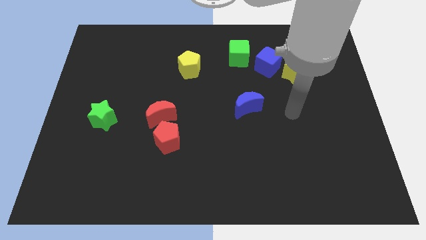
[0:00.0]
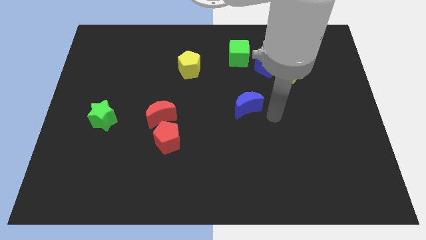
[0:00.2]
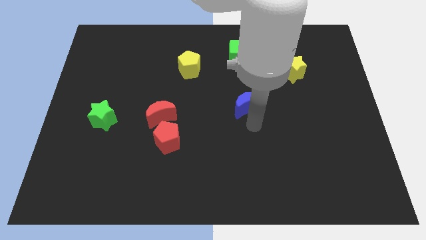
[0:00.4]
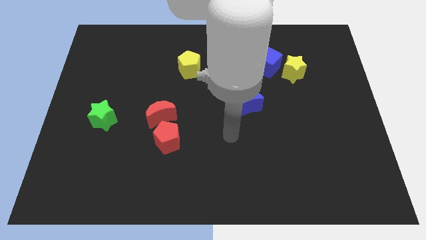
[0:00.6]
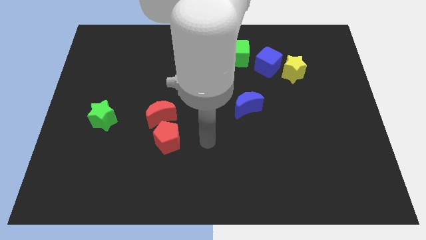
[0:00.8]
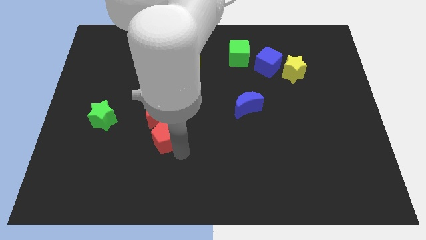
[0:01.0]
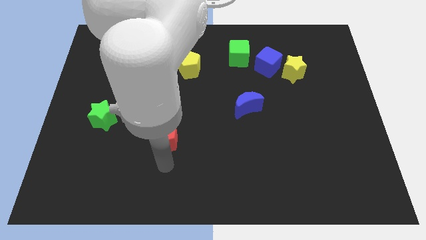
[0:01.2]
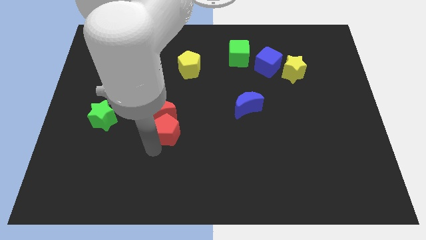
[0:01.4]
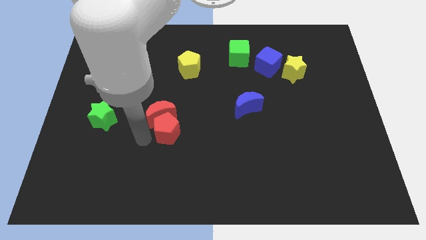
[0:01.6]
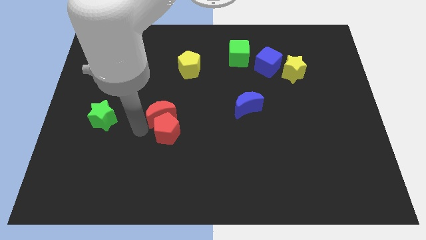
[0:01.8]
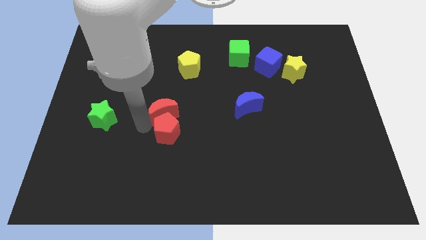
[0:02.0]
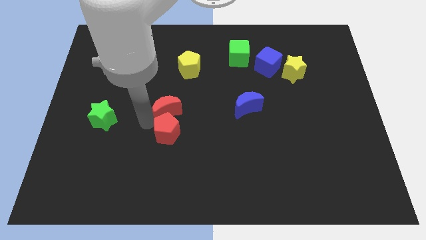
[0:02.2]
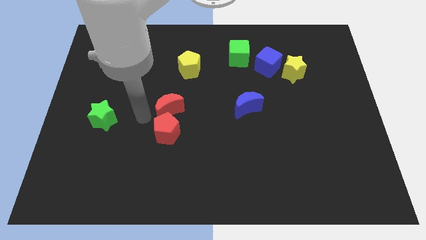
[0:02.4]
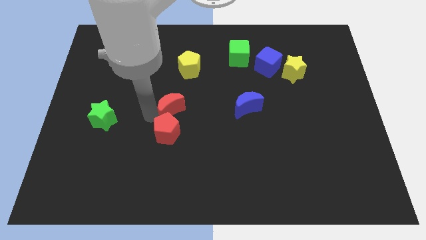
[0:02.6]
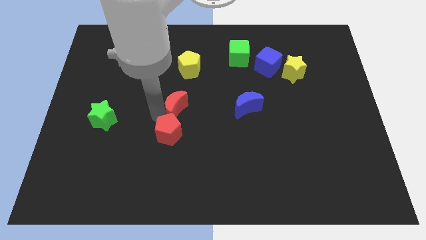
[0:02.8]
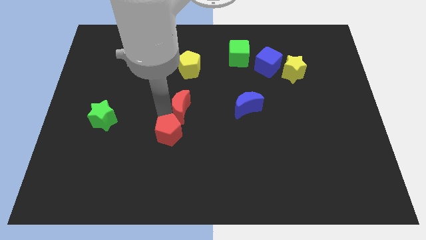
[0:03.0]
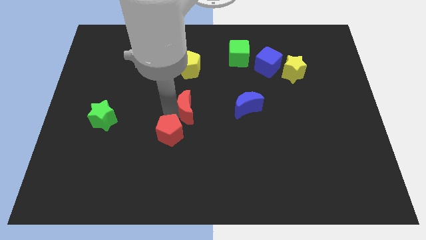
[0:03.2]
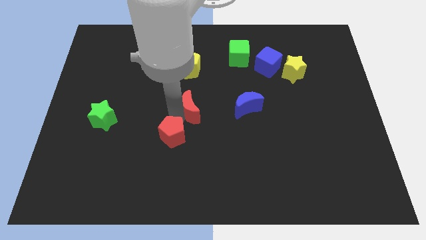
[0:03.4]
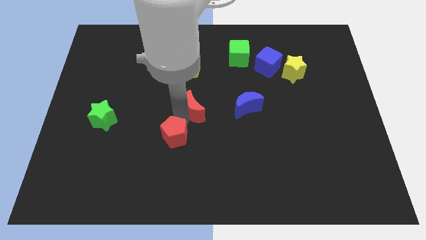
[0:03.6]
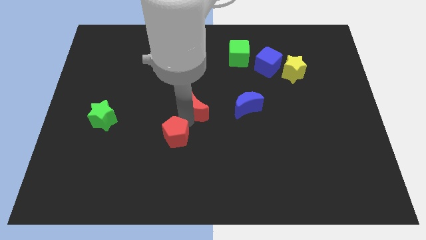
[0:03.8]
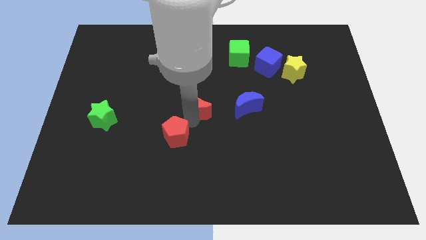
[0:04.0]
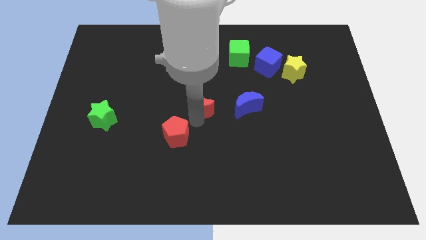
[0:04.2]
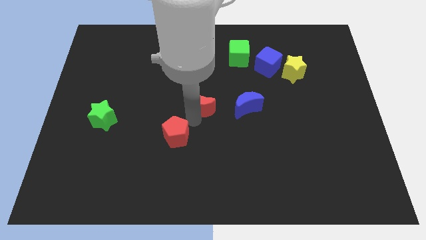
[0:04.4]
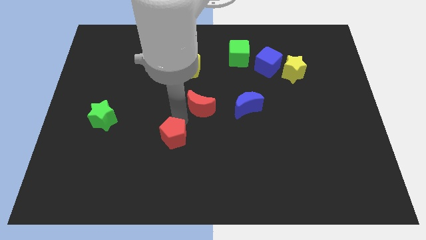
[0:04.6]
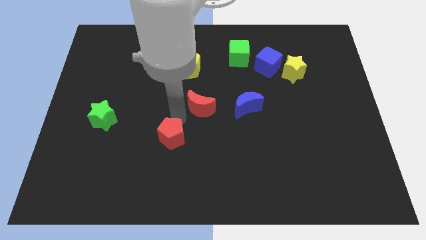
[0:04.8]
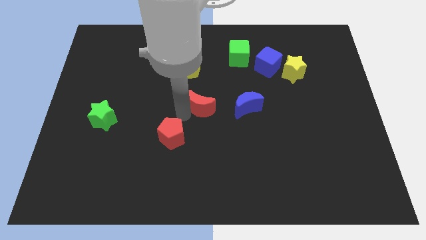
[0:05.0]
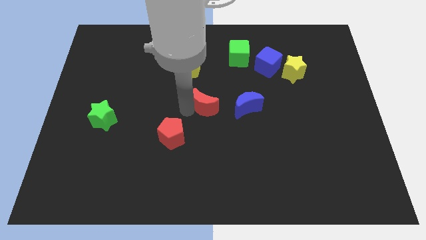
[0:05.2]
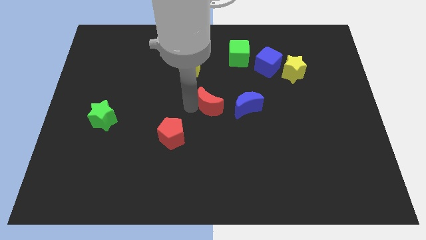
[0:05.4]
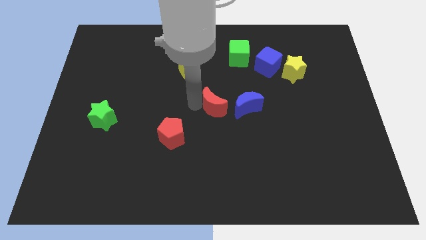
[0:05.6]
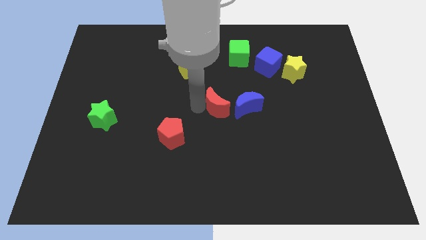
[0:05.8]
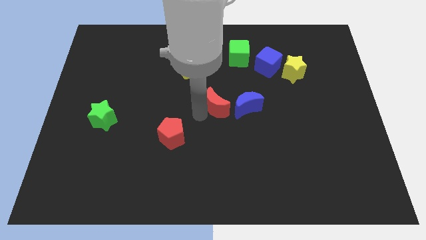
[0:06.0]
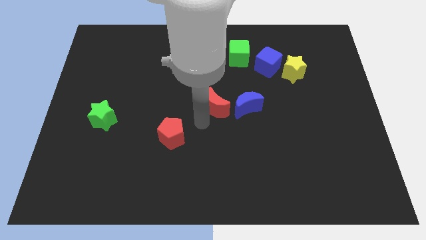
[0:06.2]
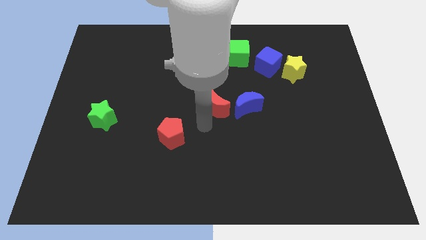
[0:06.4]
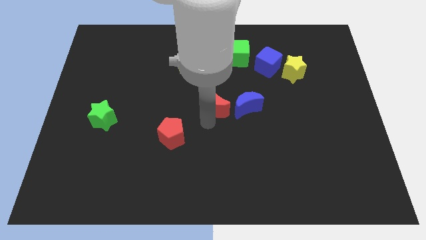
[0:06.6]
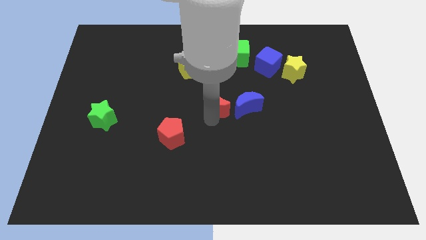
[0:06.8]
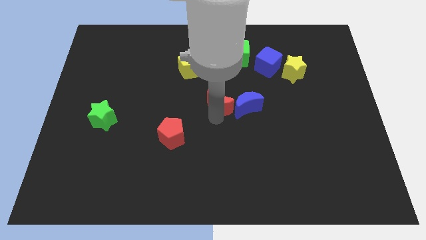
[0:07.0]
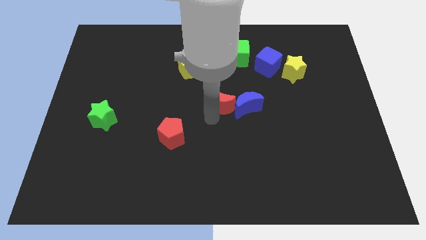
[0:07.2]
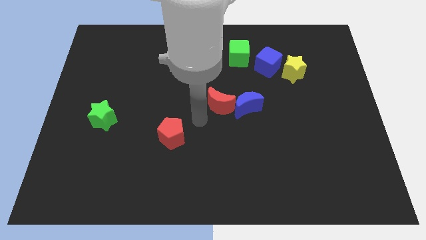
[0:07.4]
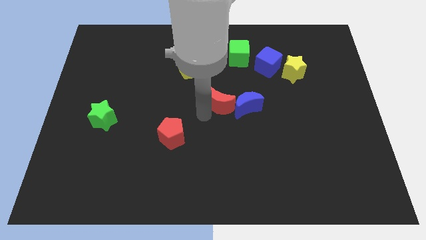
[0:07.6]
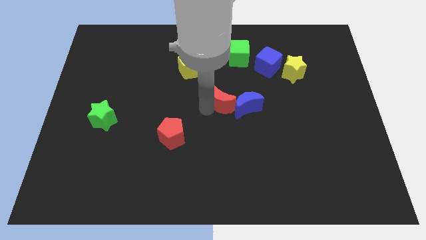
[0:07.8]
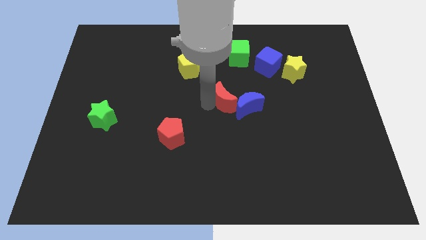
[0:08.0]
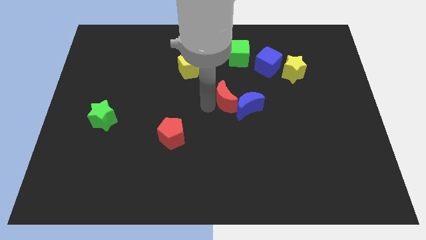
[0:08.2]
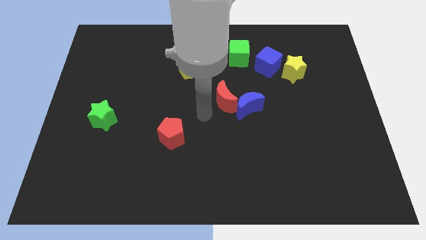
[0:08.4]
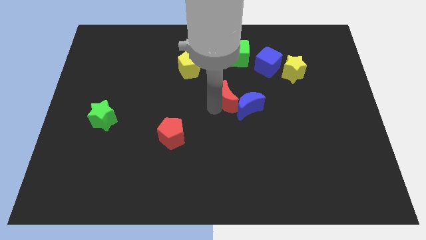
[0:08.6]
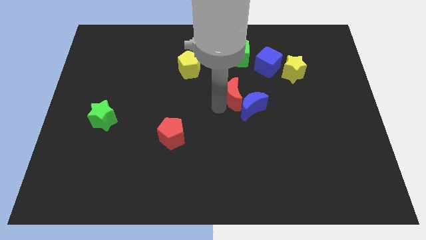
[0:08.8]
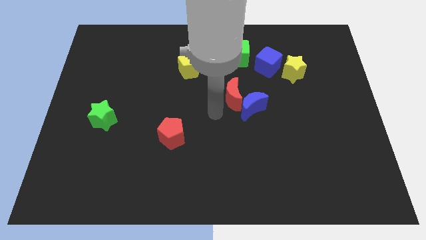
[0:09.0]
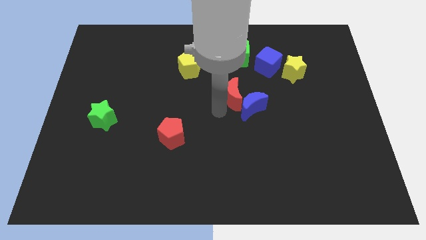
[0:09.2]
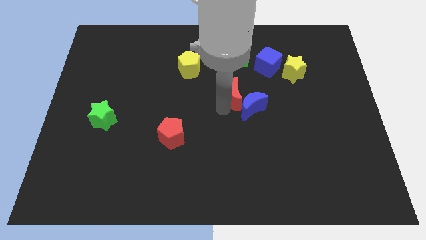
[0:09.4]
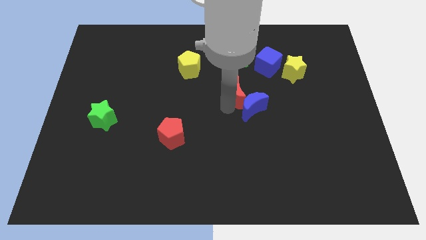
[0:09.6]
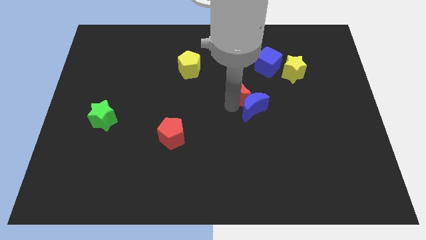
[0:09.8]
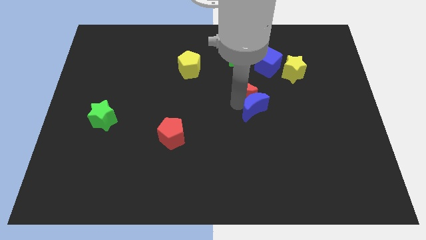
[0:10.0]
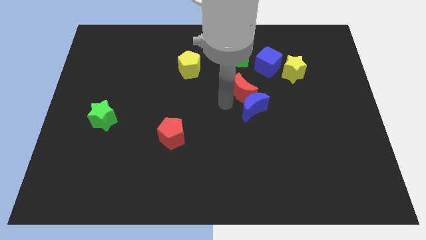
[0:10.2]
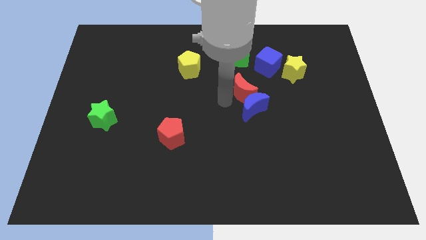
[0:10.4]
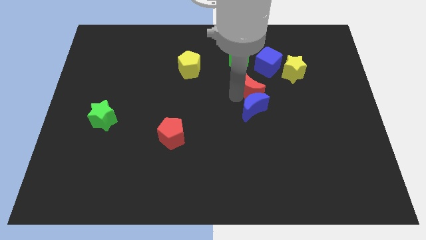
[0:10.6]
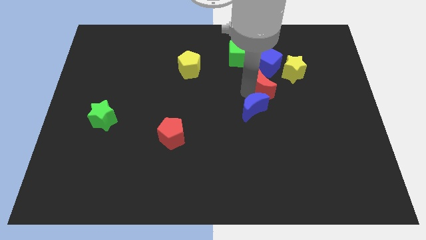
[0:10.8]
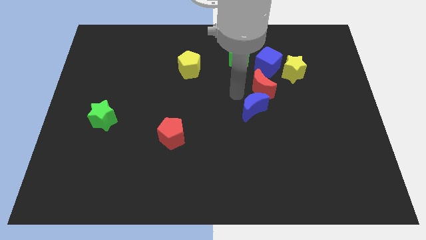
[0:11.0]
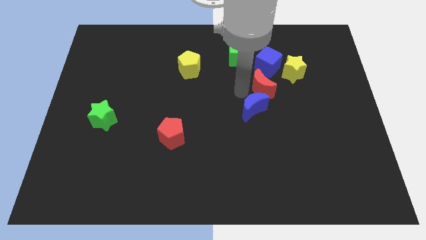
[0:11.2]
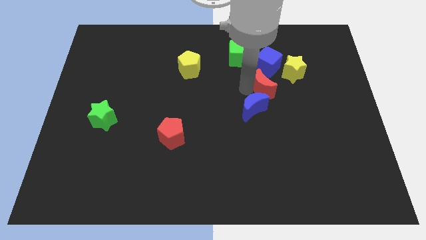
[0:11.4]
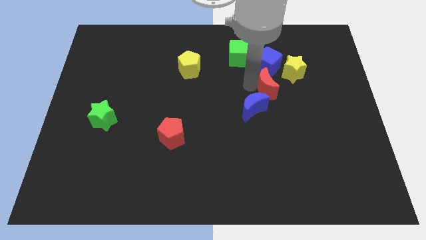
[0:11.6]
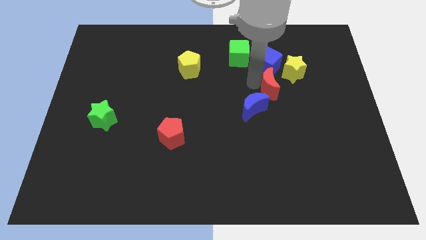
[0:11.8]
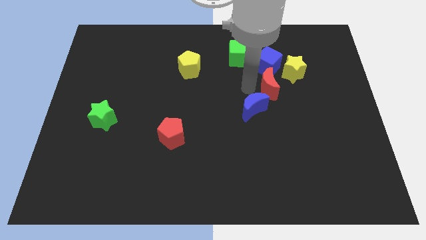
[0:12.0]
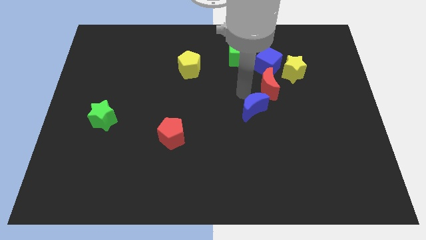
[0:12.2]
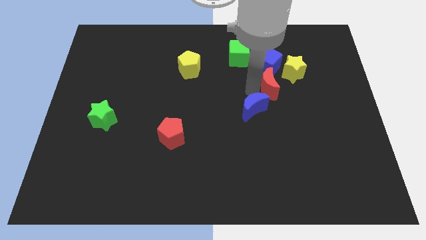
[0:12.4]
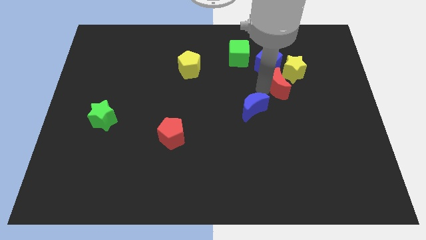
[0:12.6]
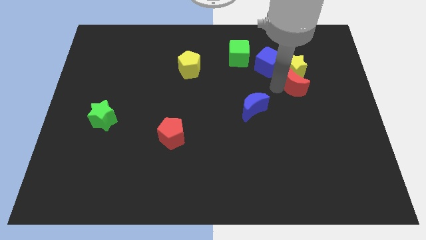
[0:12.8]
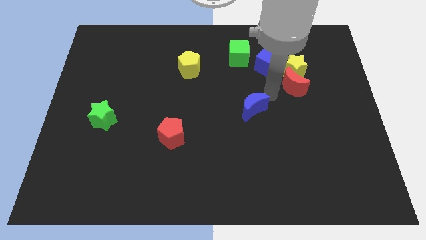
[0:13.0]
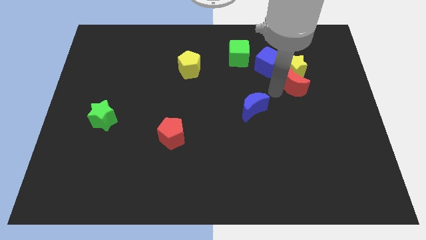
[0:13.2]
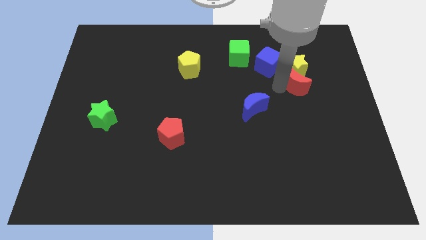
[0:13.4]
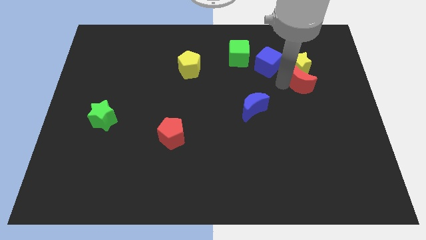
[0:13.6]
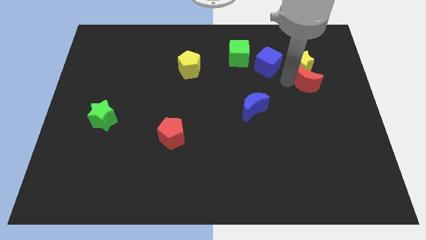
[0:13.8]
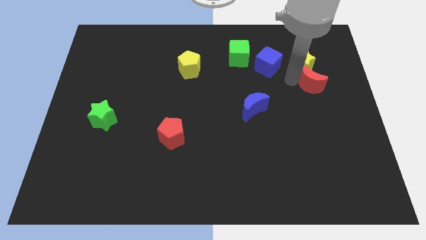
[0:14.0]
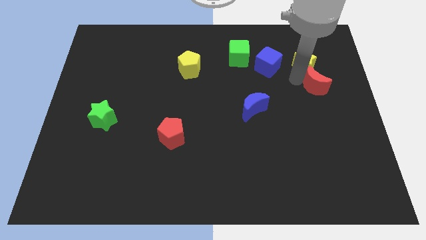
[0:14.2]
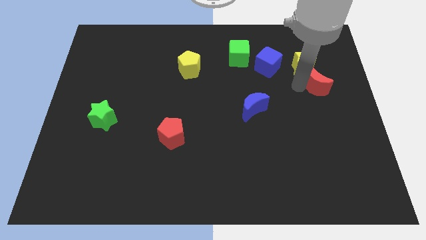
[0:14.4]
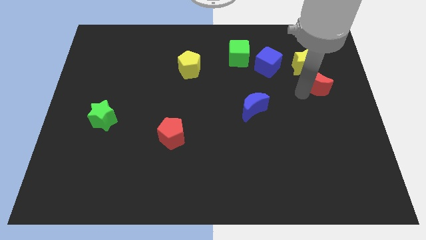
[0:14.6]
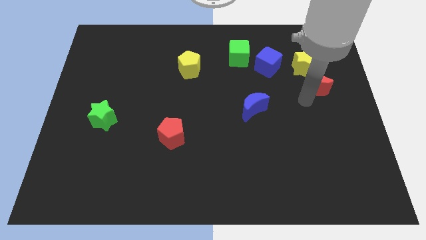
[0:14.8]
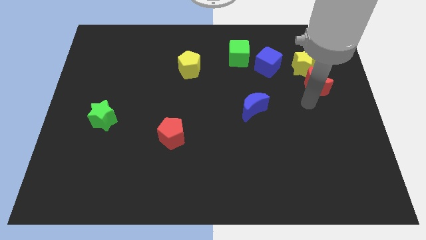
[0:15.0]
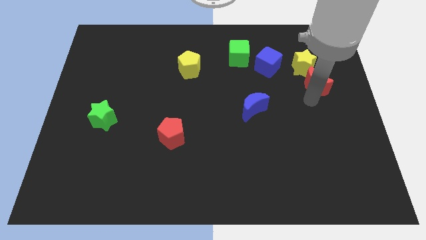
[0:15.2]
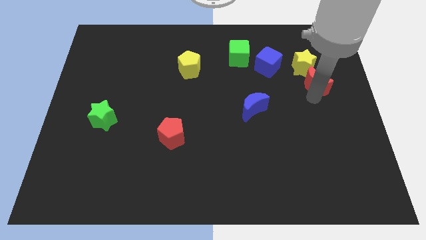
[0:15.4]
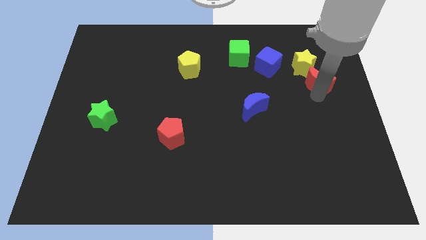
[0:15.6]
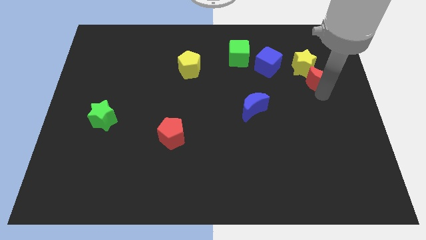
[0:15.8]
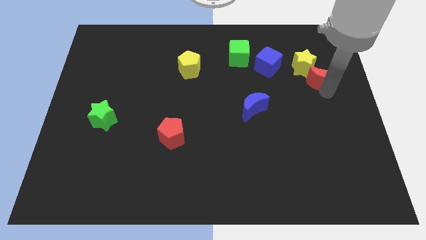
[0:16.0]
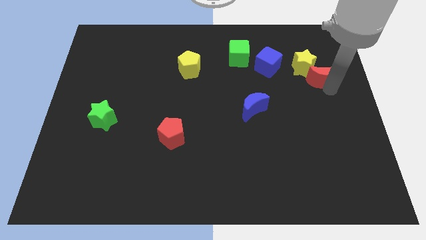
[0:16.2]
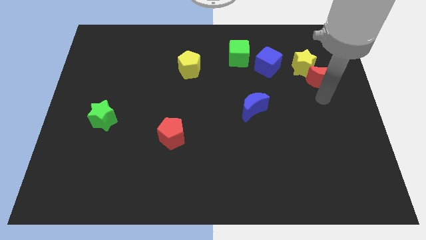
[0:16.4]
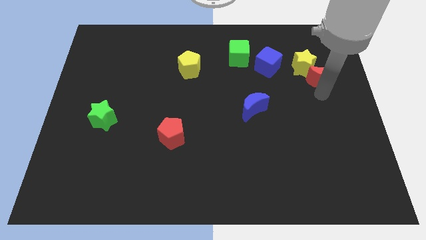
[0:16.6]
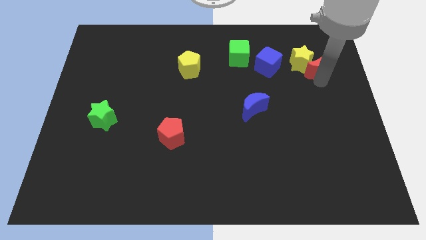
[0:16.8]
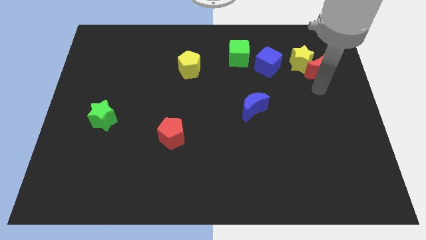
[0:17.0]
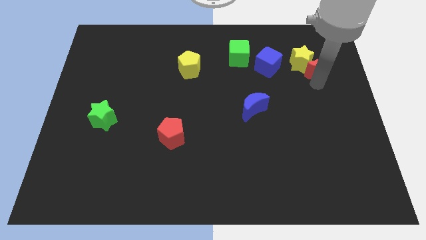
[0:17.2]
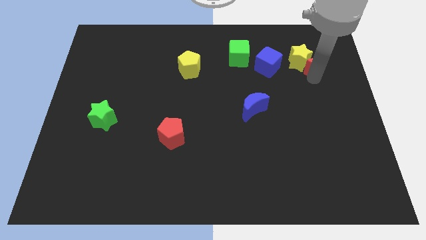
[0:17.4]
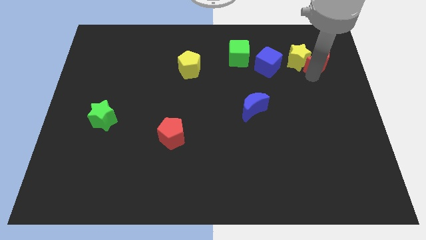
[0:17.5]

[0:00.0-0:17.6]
put the red moon to the top right side of the yellow star
